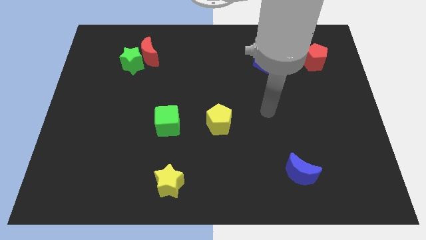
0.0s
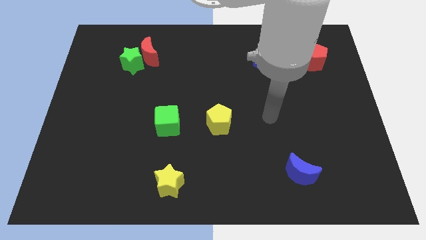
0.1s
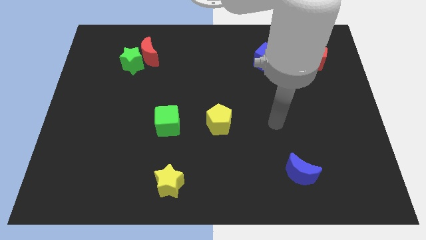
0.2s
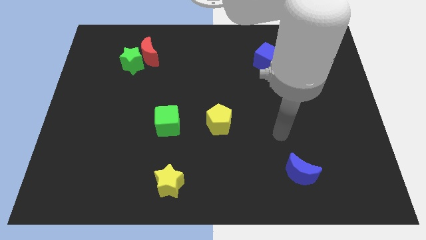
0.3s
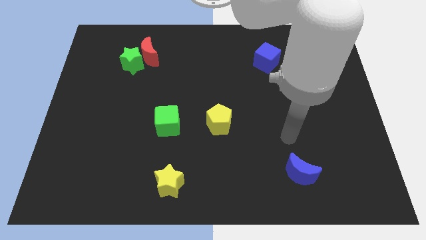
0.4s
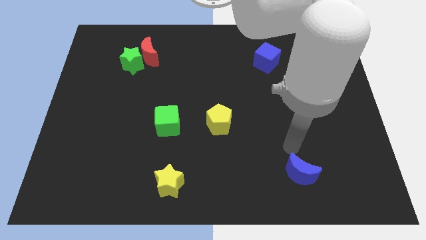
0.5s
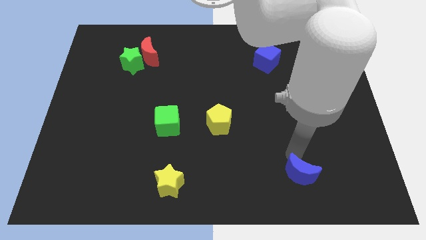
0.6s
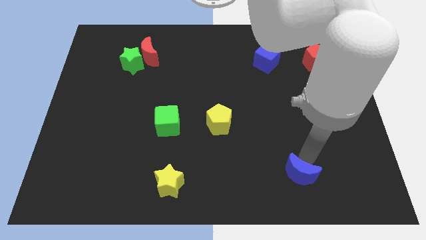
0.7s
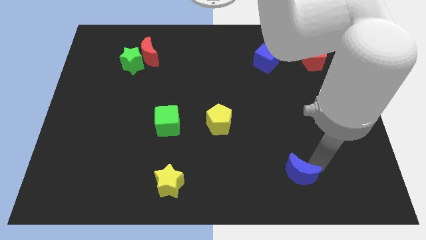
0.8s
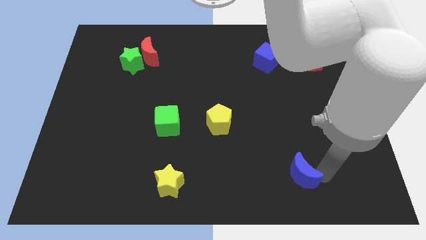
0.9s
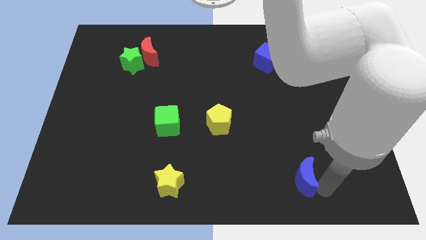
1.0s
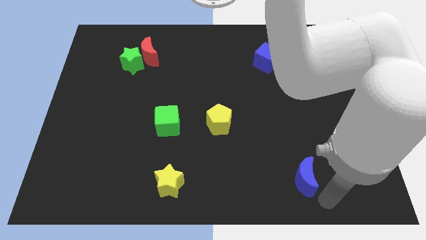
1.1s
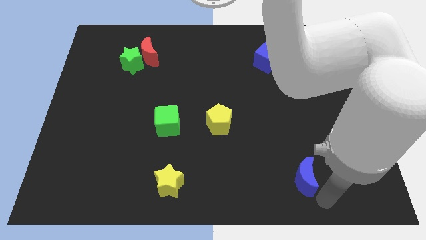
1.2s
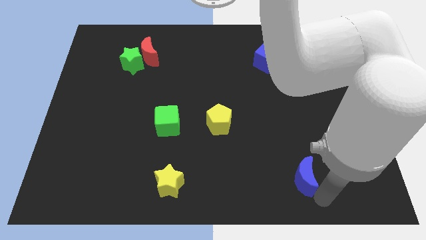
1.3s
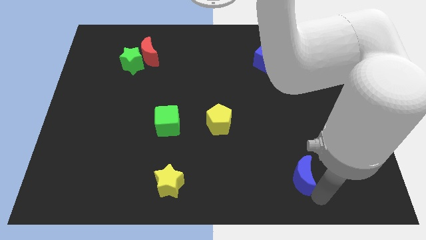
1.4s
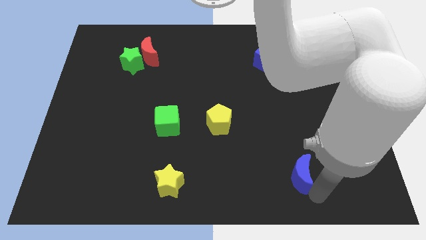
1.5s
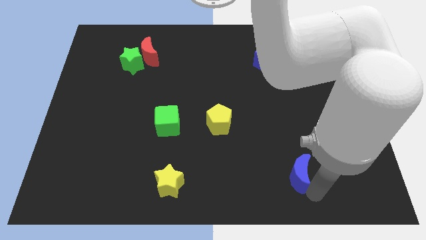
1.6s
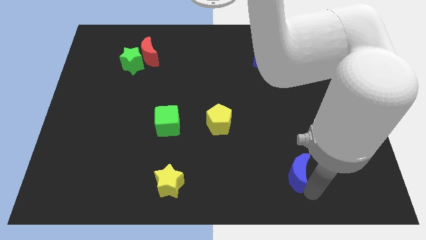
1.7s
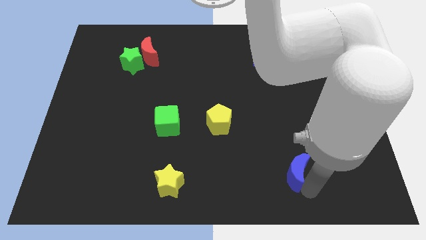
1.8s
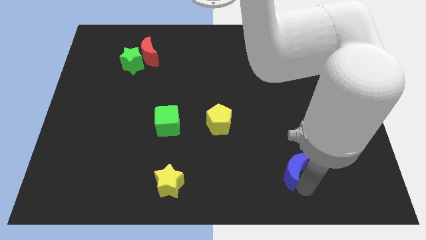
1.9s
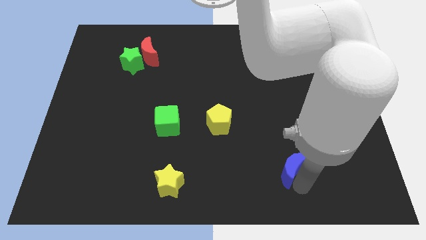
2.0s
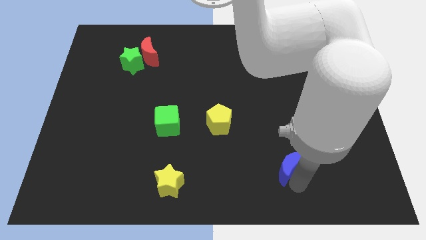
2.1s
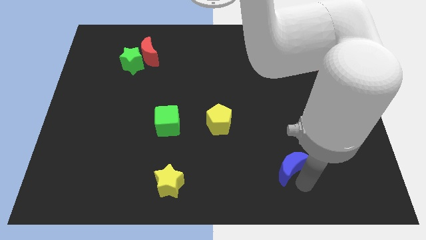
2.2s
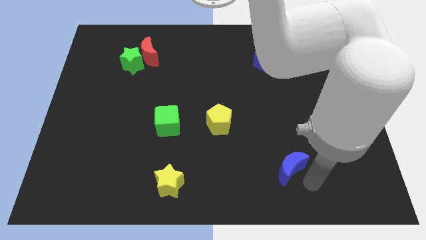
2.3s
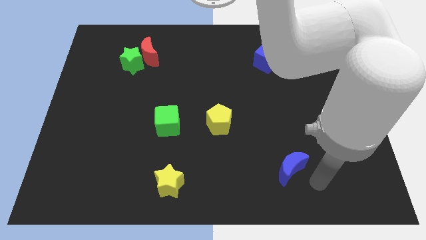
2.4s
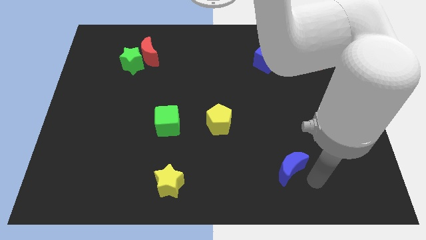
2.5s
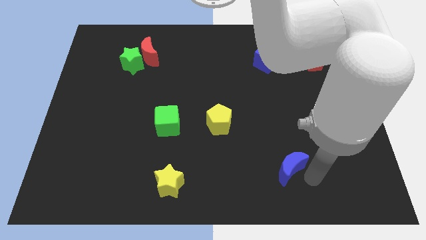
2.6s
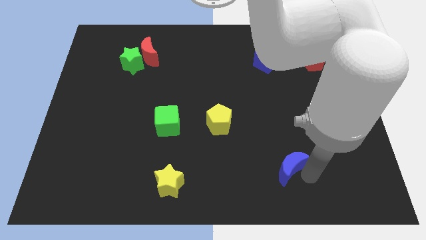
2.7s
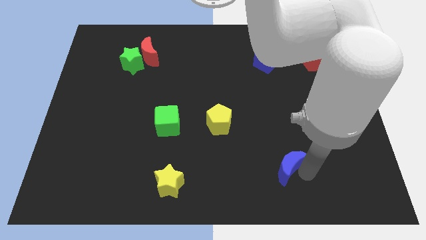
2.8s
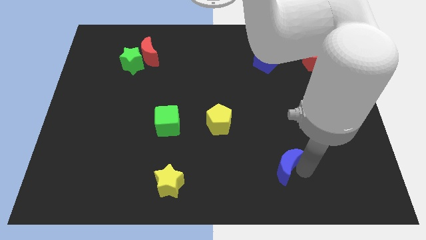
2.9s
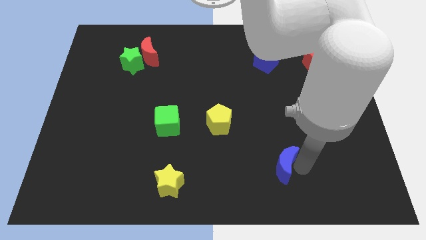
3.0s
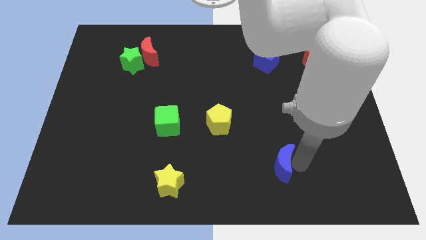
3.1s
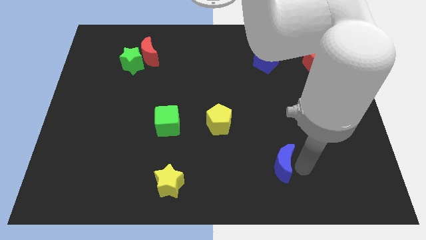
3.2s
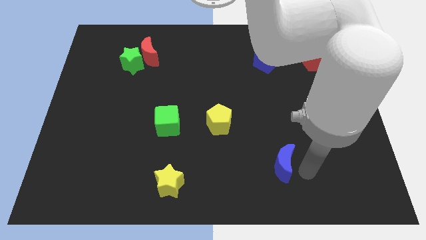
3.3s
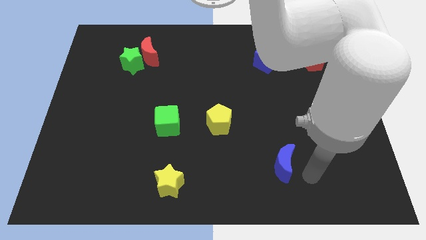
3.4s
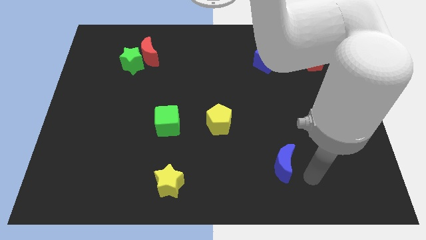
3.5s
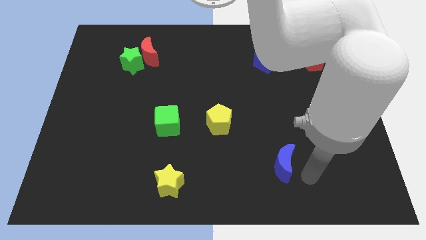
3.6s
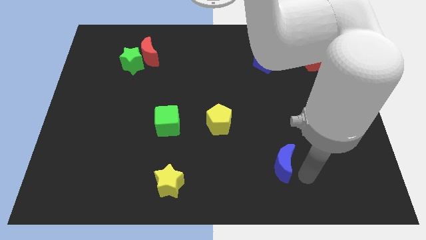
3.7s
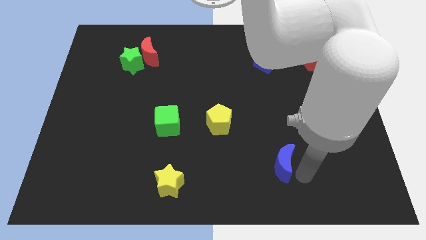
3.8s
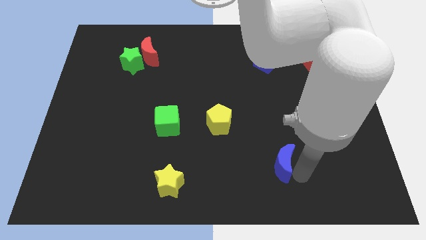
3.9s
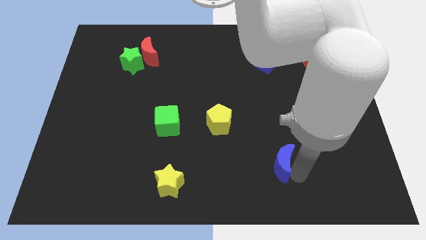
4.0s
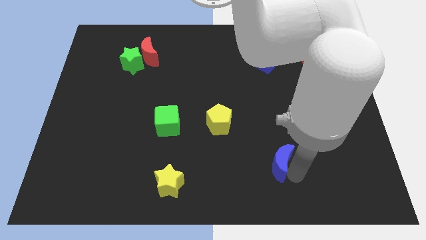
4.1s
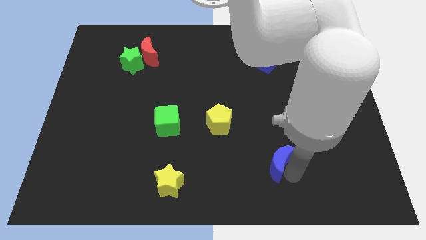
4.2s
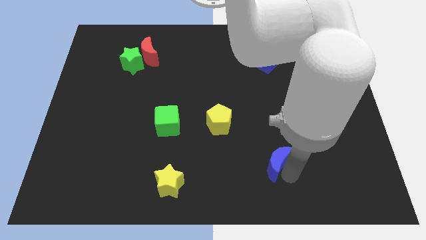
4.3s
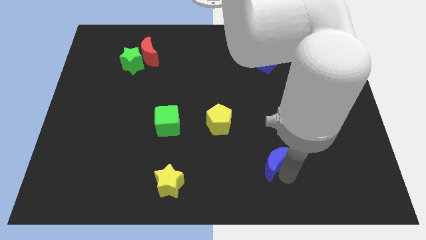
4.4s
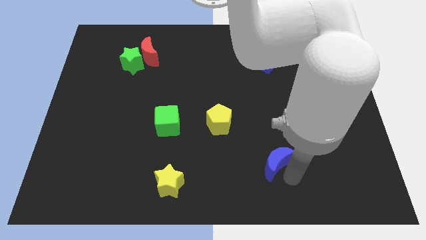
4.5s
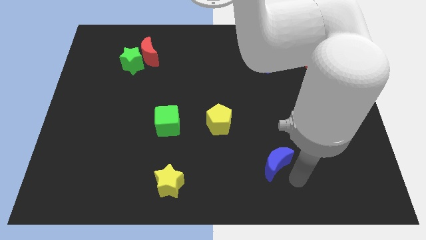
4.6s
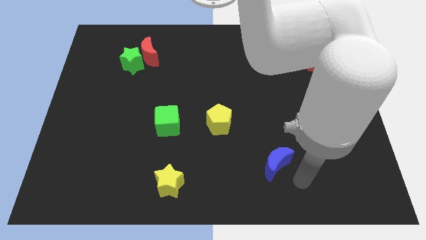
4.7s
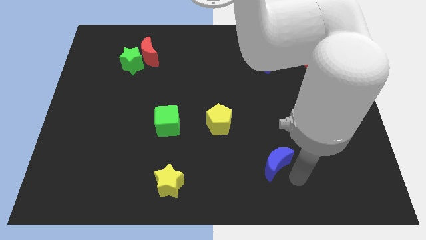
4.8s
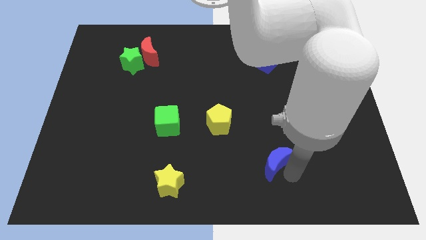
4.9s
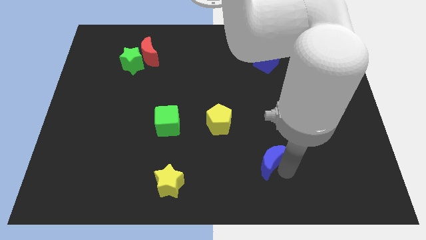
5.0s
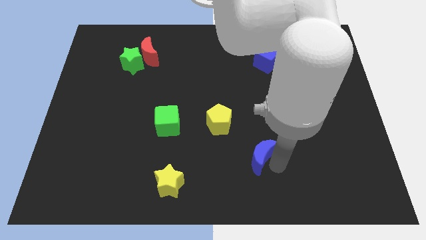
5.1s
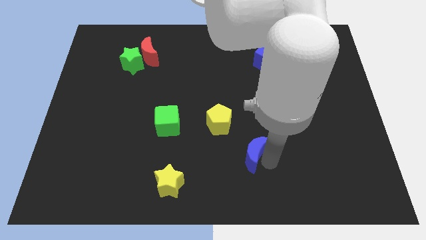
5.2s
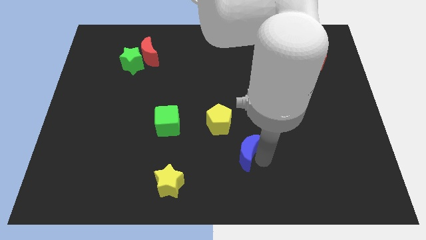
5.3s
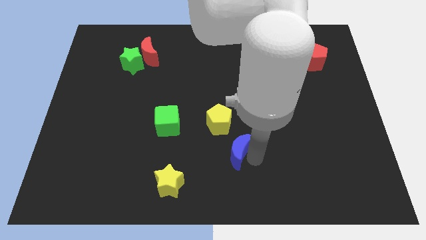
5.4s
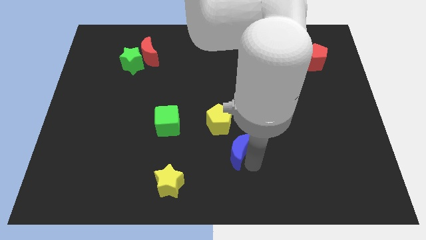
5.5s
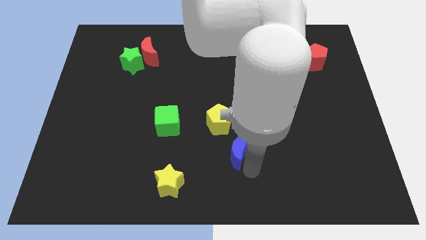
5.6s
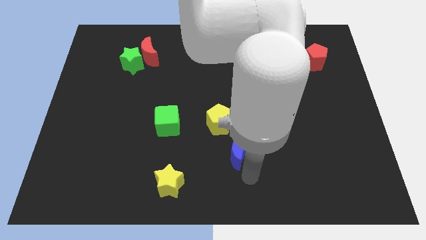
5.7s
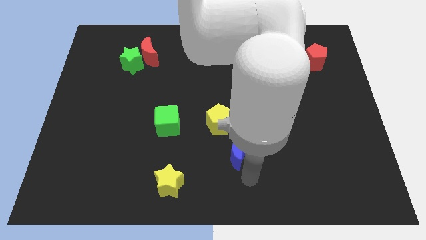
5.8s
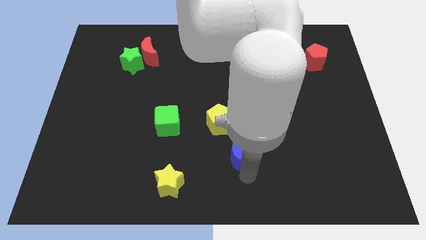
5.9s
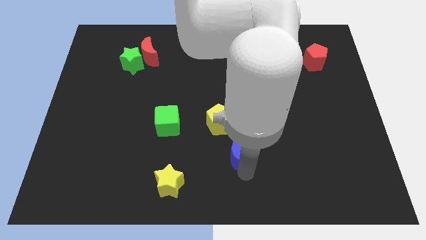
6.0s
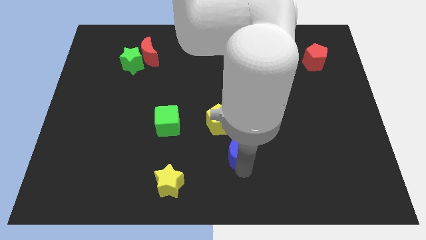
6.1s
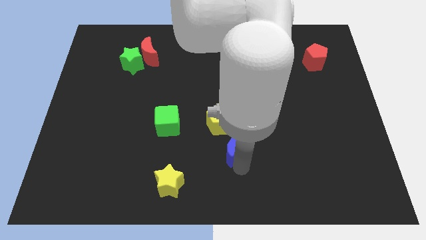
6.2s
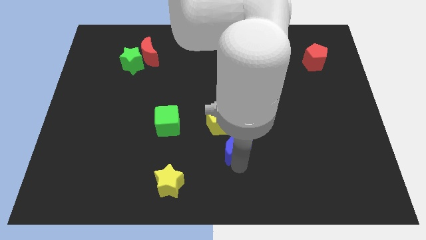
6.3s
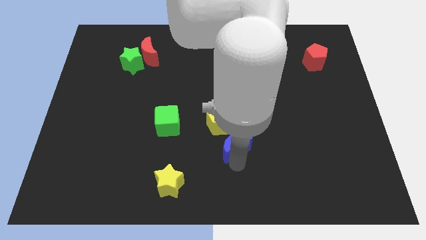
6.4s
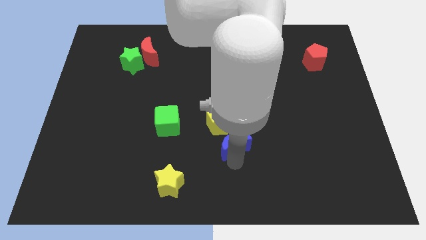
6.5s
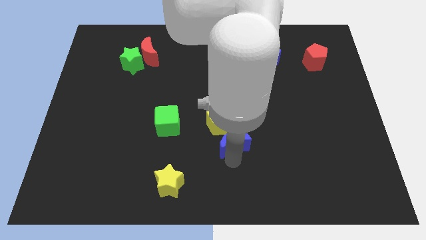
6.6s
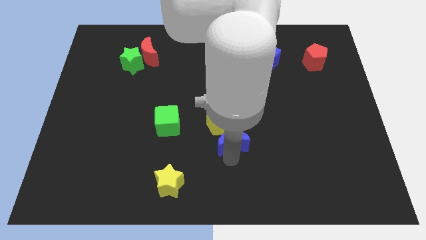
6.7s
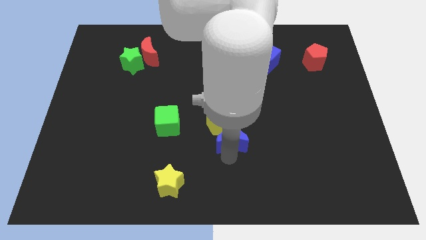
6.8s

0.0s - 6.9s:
slide the blue moon to the yellow pentagon

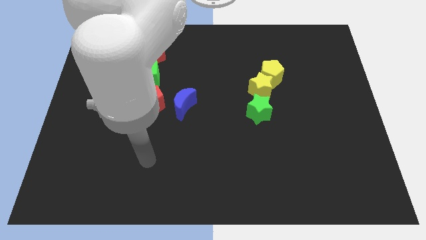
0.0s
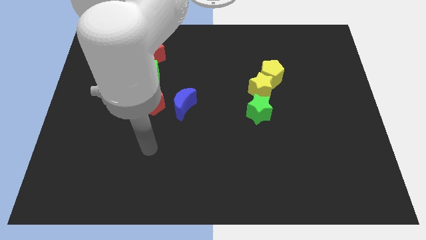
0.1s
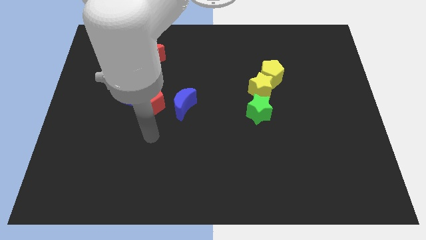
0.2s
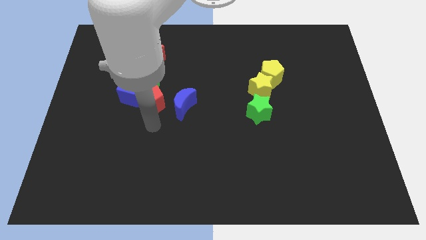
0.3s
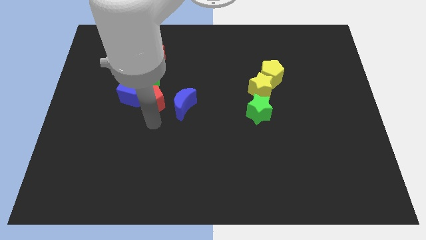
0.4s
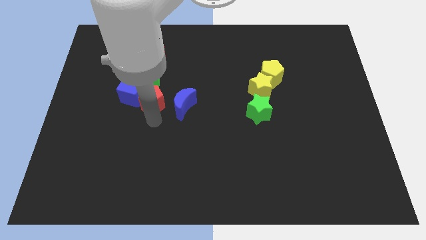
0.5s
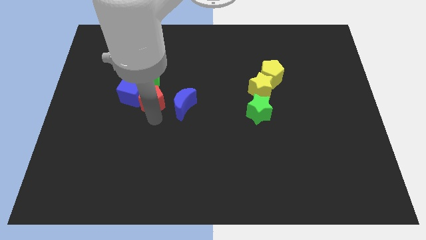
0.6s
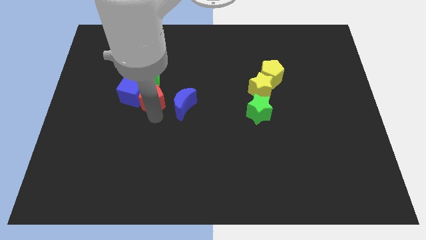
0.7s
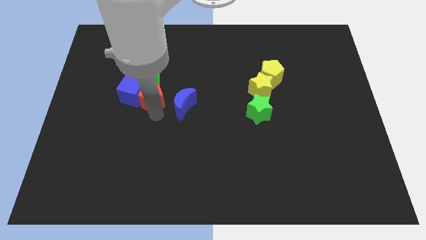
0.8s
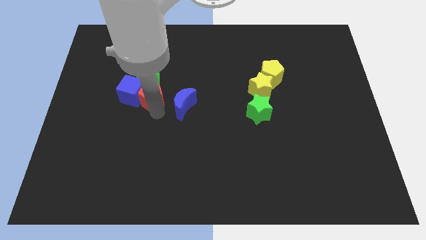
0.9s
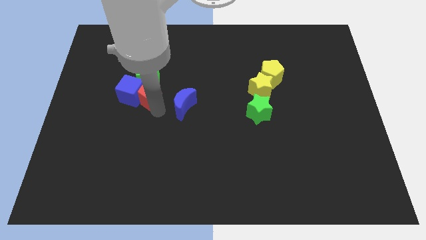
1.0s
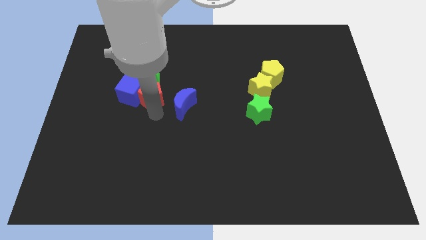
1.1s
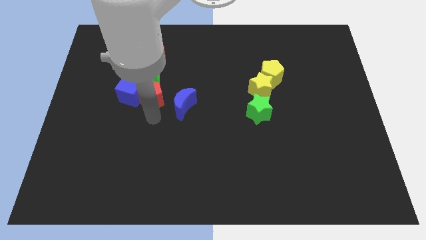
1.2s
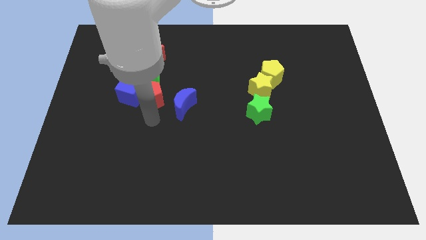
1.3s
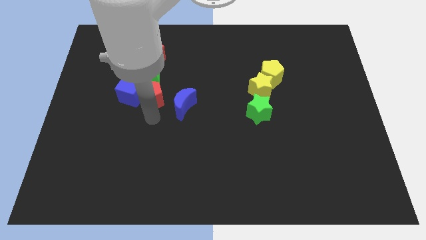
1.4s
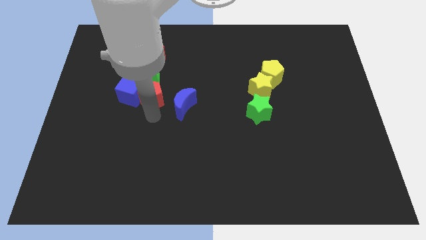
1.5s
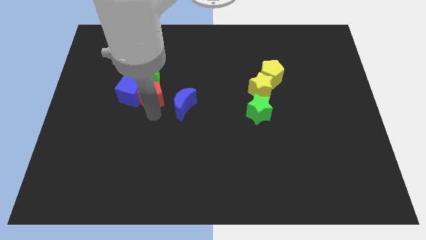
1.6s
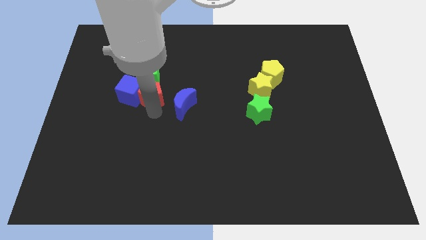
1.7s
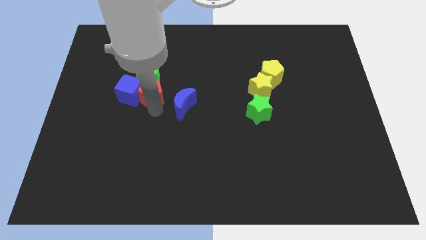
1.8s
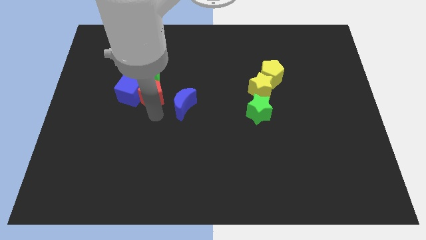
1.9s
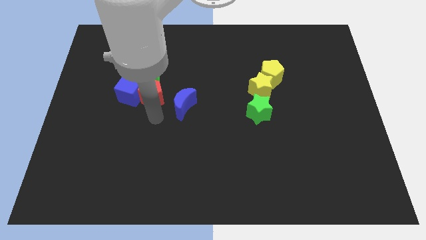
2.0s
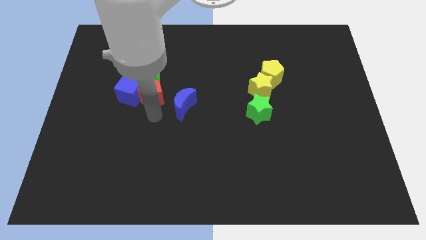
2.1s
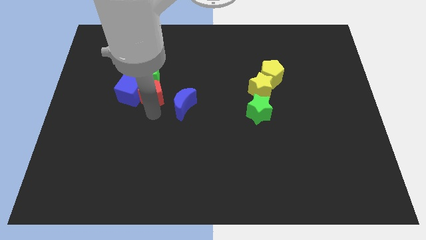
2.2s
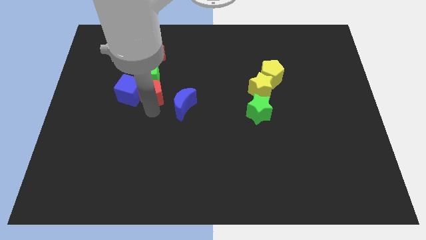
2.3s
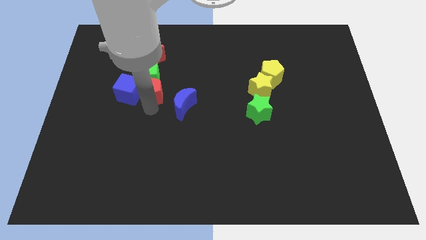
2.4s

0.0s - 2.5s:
slide the red pentagon close to the green cube
